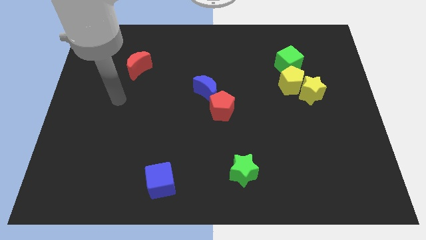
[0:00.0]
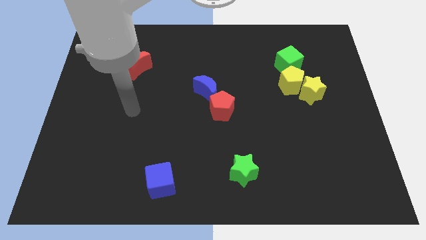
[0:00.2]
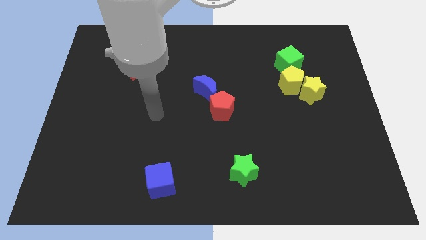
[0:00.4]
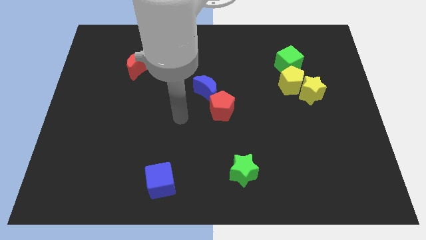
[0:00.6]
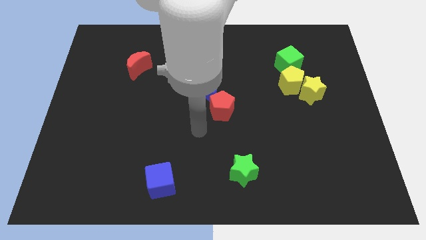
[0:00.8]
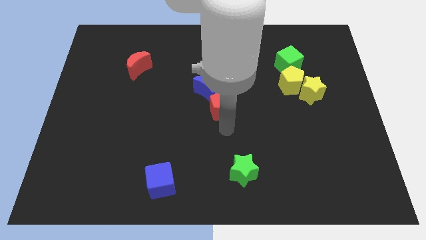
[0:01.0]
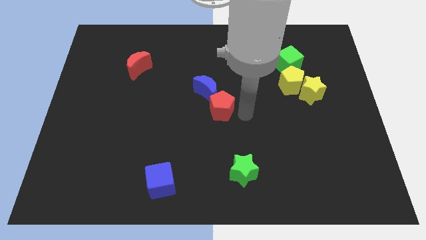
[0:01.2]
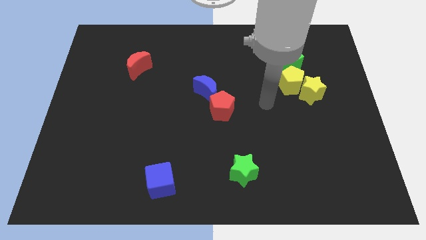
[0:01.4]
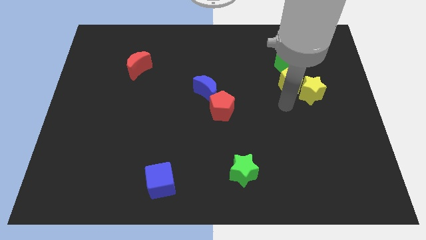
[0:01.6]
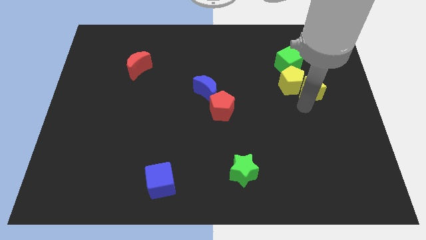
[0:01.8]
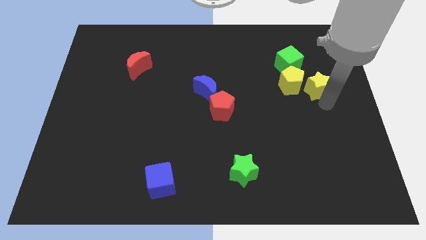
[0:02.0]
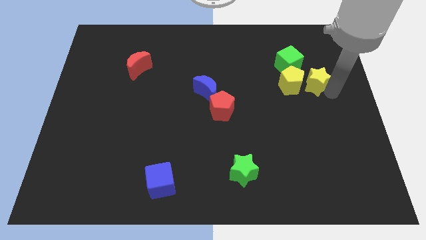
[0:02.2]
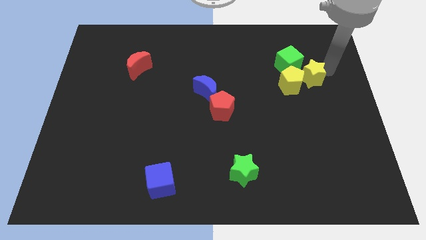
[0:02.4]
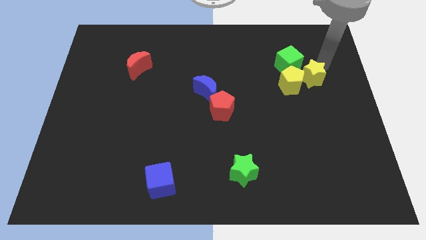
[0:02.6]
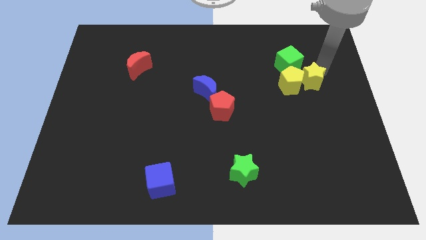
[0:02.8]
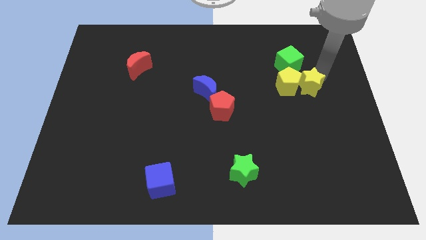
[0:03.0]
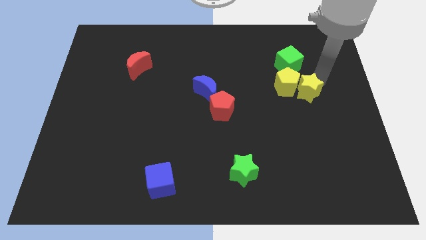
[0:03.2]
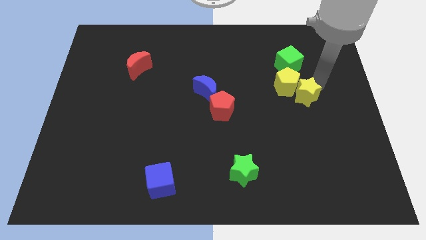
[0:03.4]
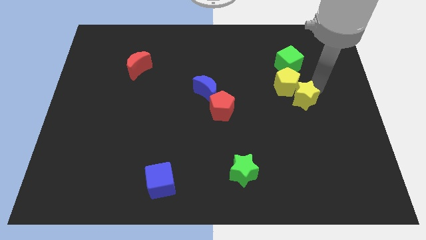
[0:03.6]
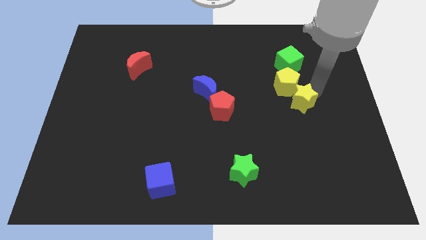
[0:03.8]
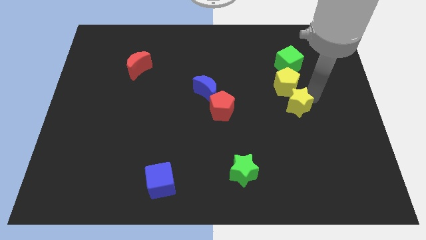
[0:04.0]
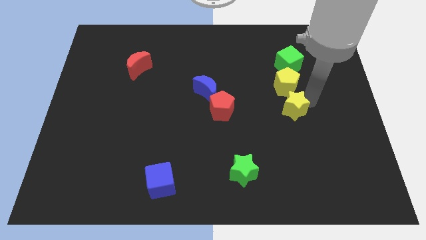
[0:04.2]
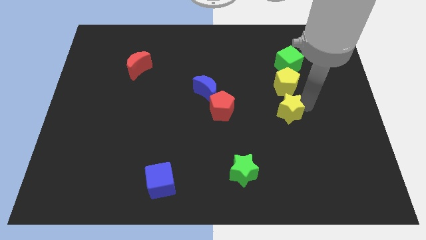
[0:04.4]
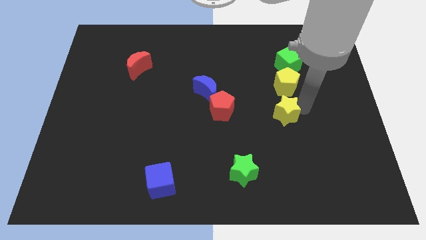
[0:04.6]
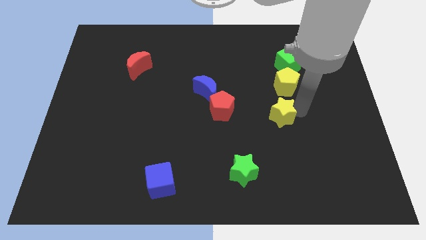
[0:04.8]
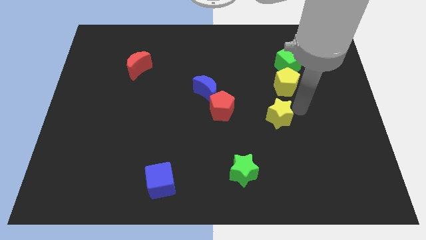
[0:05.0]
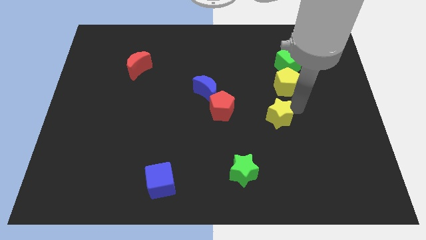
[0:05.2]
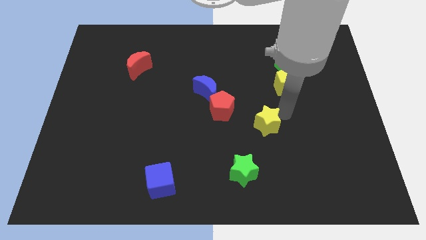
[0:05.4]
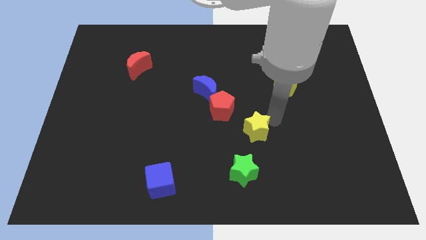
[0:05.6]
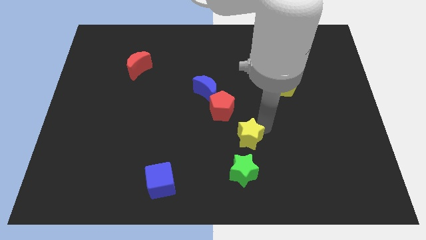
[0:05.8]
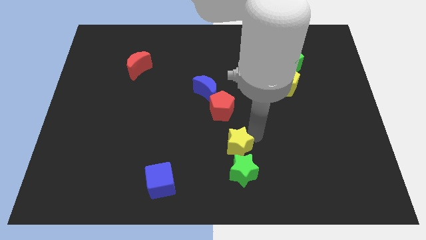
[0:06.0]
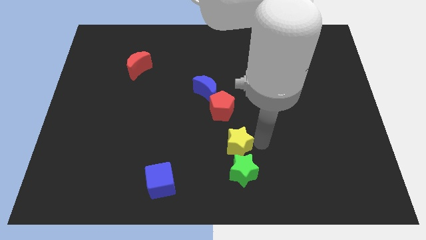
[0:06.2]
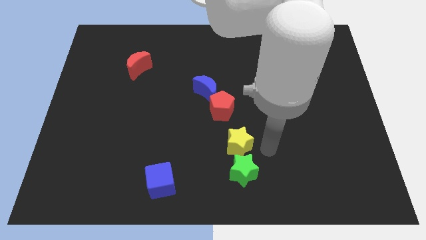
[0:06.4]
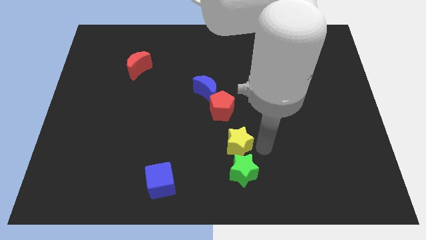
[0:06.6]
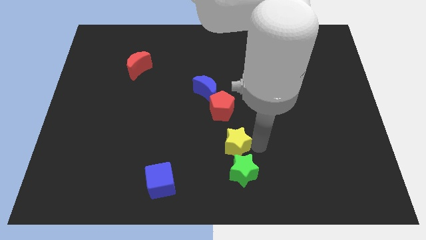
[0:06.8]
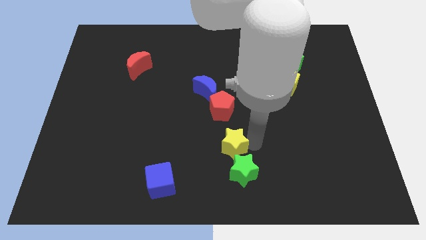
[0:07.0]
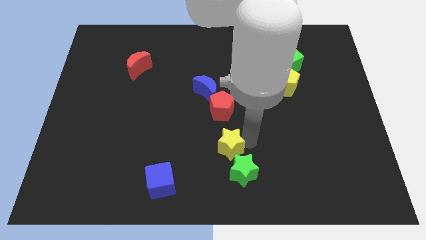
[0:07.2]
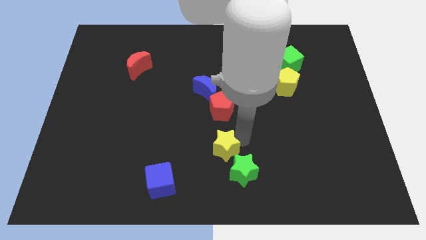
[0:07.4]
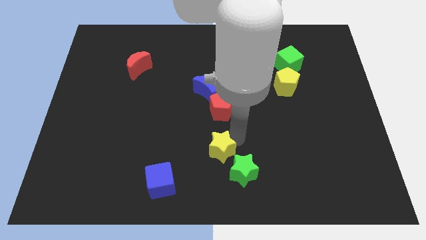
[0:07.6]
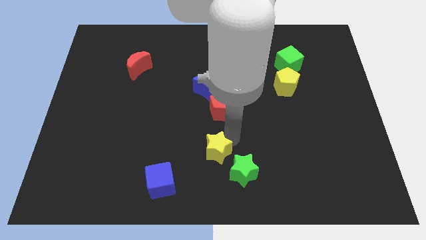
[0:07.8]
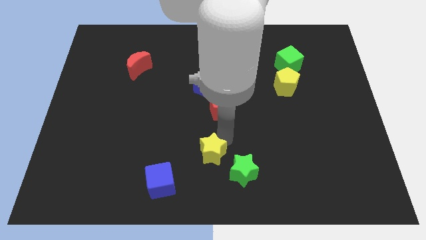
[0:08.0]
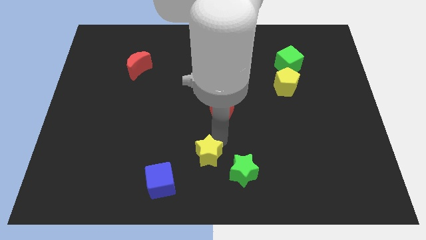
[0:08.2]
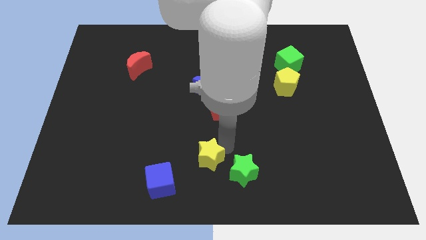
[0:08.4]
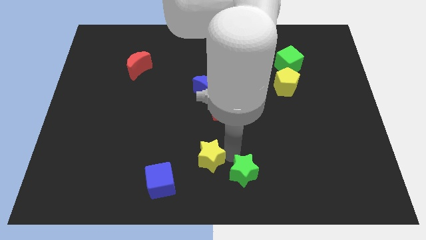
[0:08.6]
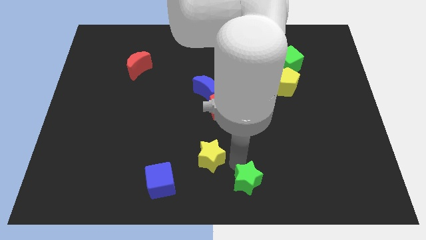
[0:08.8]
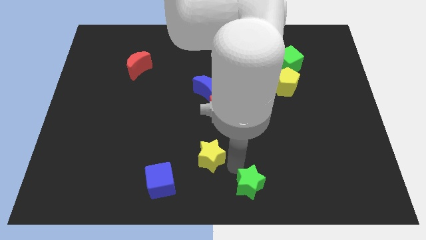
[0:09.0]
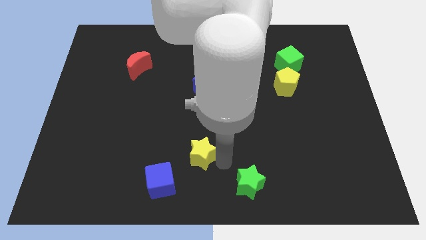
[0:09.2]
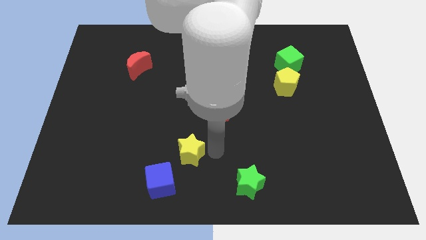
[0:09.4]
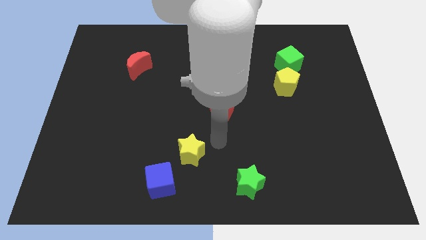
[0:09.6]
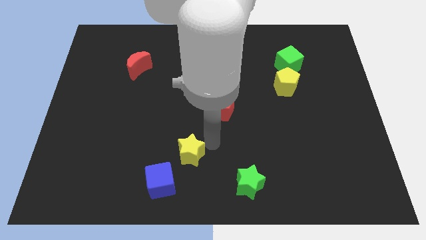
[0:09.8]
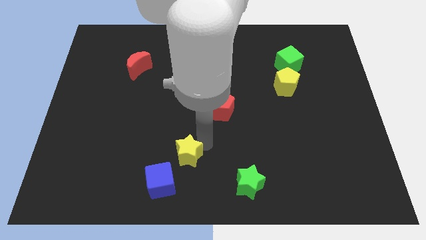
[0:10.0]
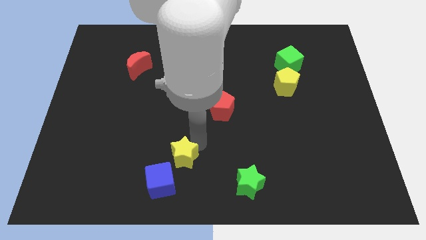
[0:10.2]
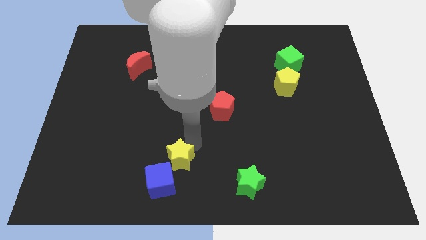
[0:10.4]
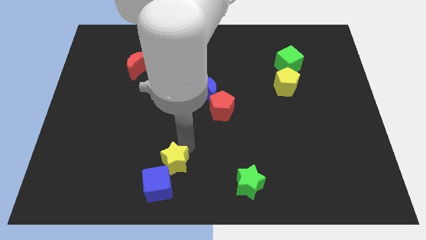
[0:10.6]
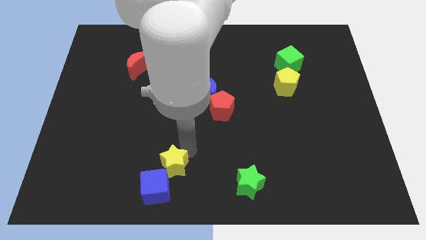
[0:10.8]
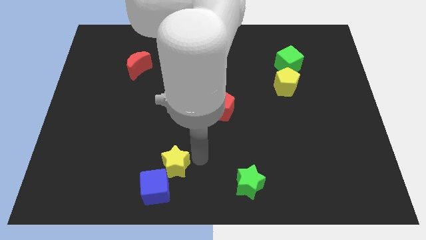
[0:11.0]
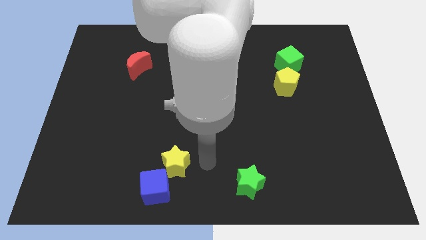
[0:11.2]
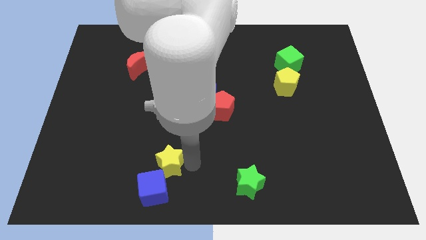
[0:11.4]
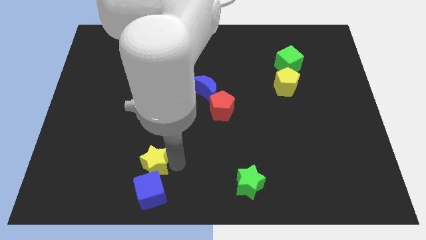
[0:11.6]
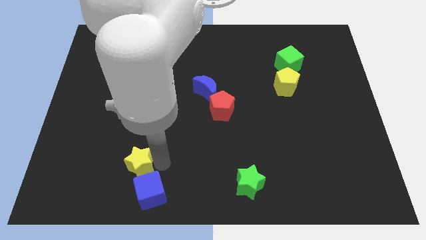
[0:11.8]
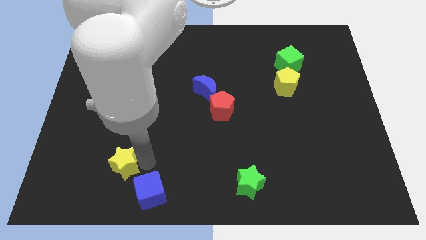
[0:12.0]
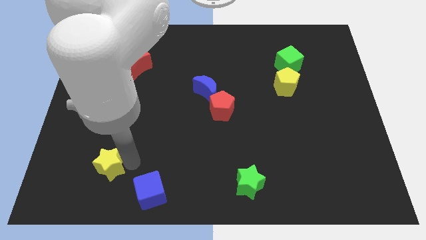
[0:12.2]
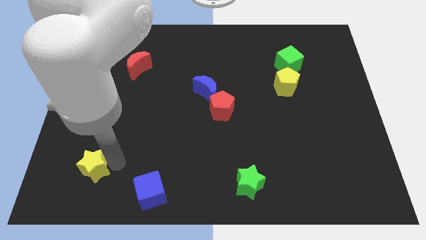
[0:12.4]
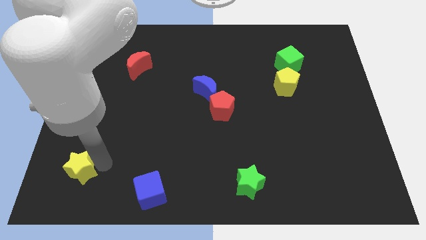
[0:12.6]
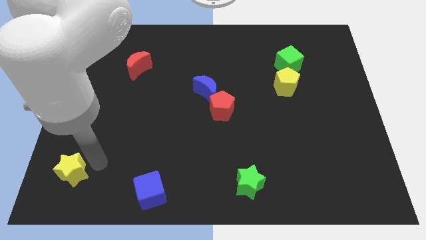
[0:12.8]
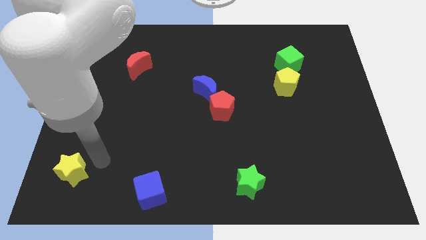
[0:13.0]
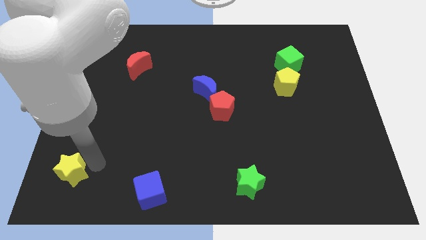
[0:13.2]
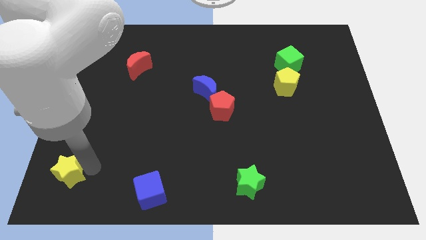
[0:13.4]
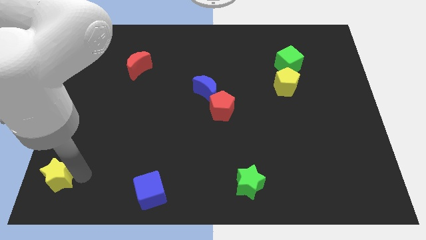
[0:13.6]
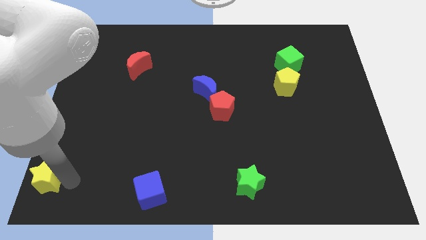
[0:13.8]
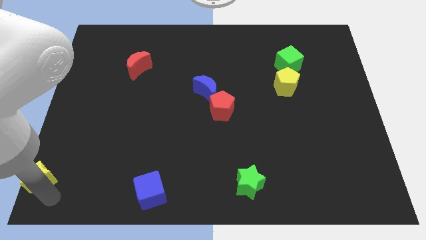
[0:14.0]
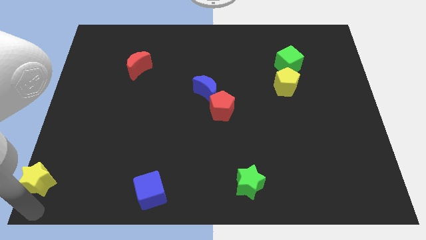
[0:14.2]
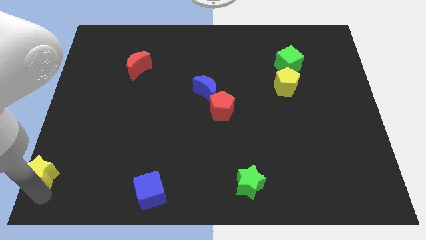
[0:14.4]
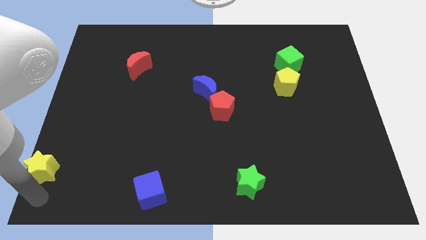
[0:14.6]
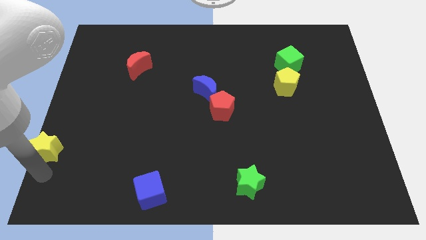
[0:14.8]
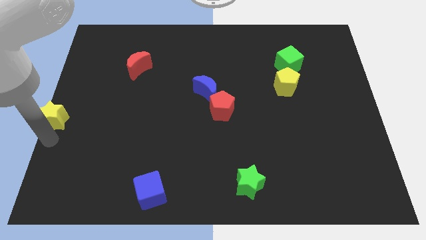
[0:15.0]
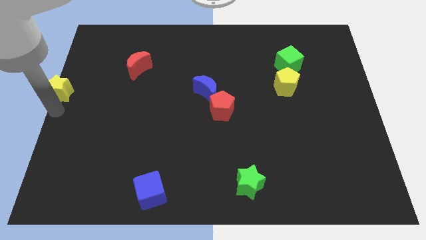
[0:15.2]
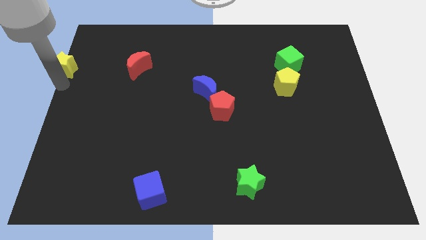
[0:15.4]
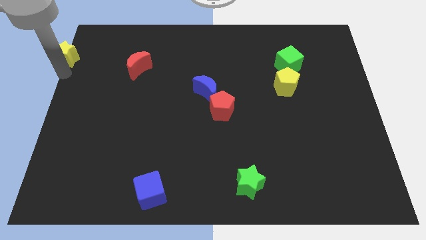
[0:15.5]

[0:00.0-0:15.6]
put the yellow star to the top left corner
